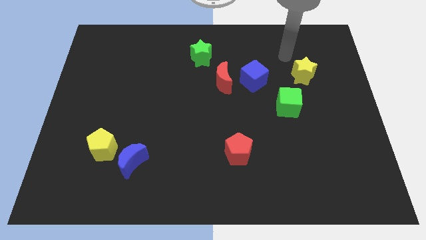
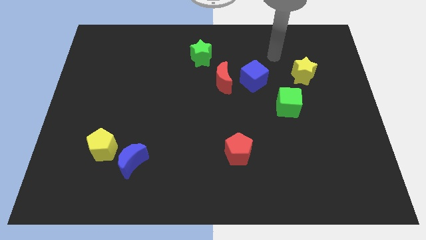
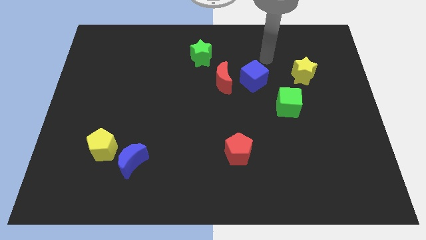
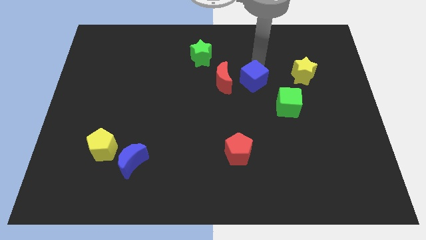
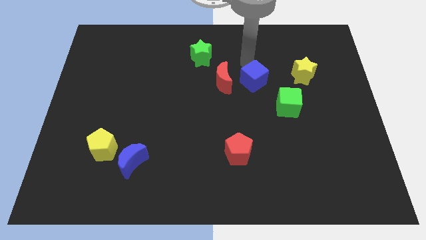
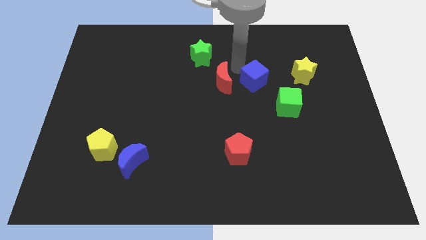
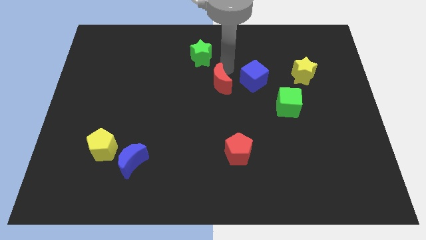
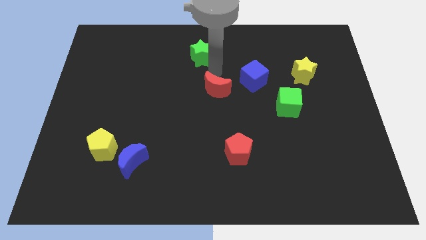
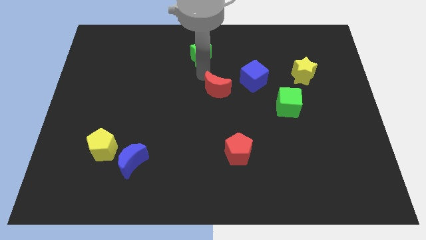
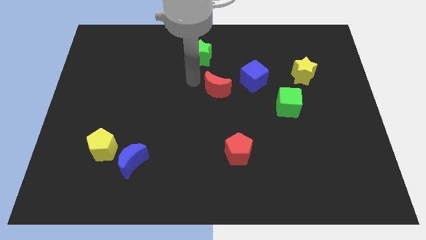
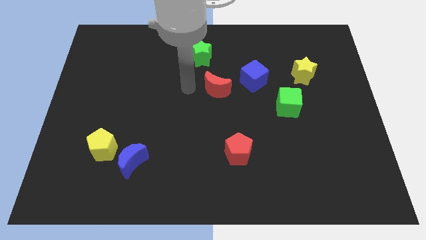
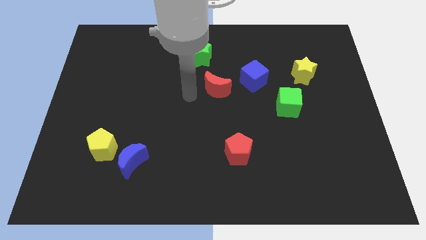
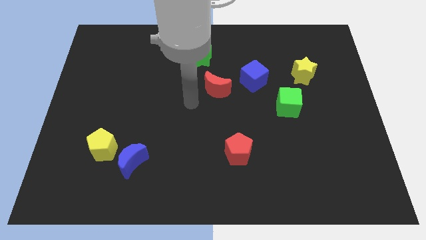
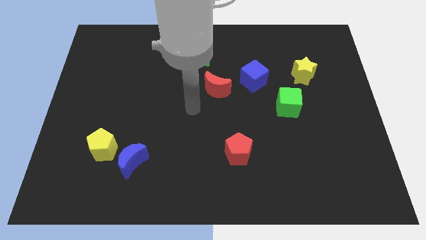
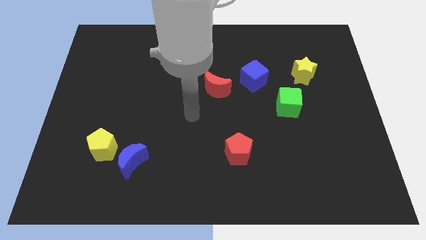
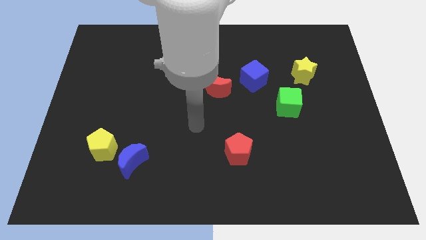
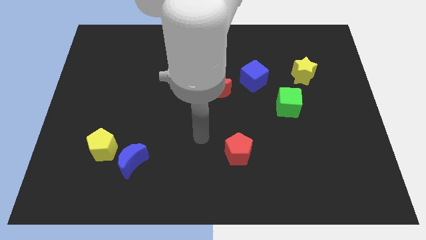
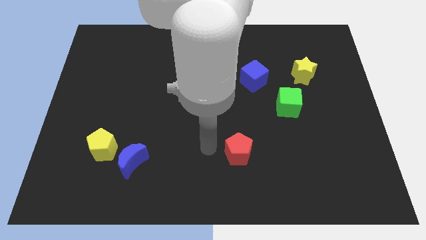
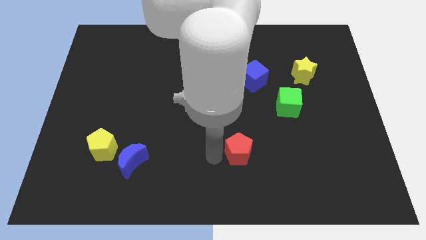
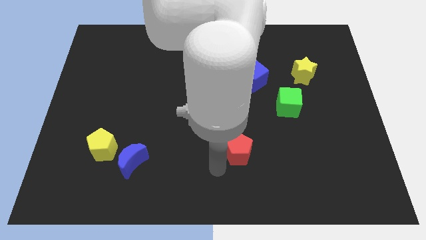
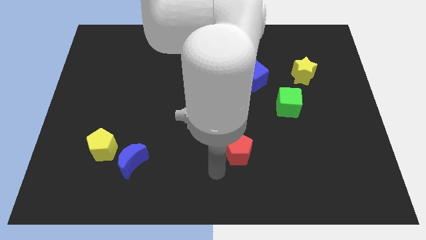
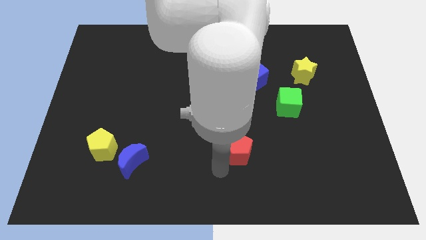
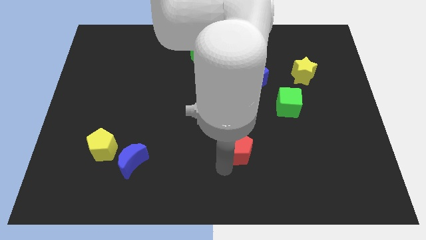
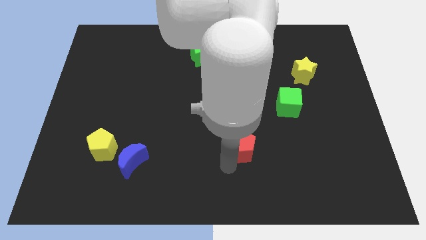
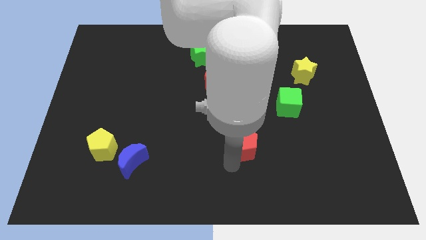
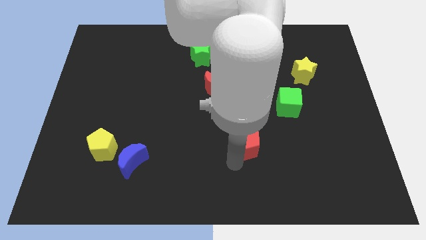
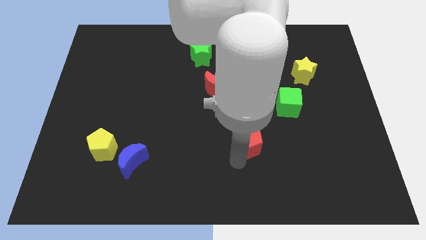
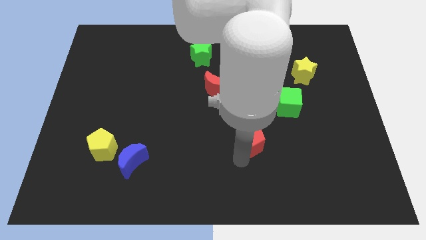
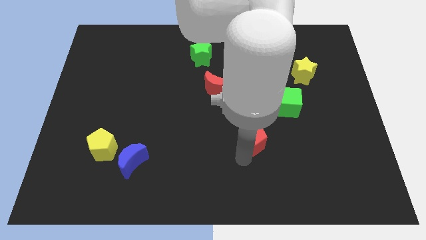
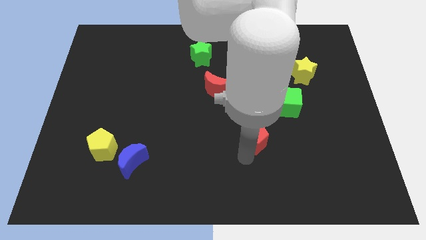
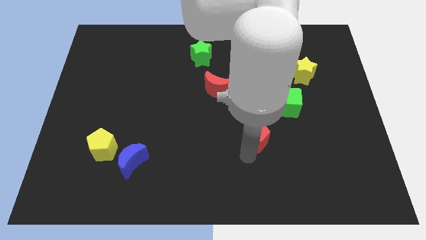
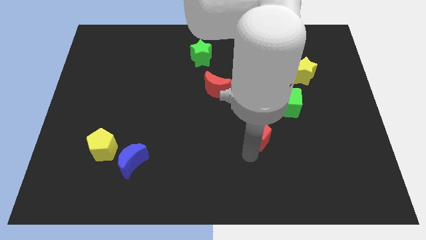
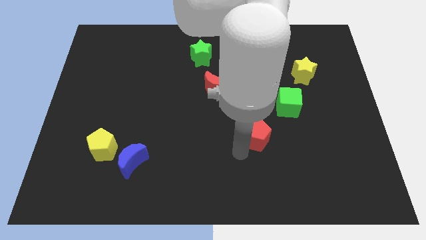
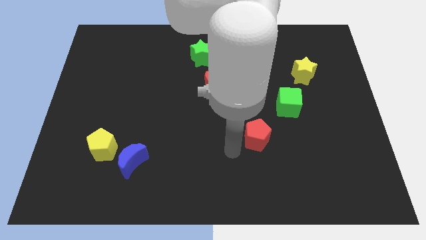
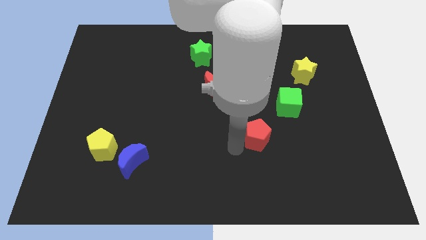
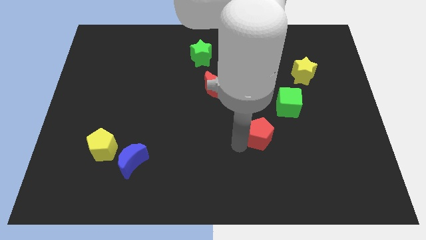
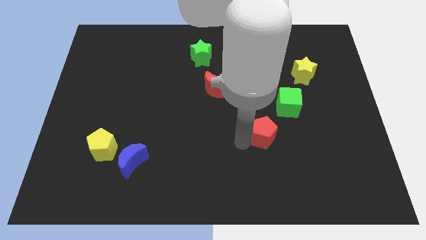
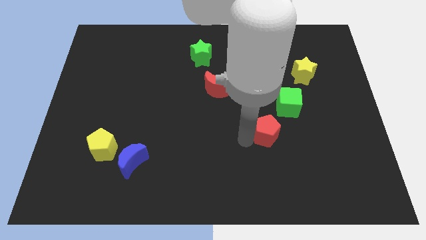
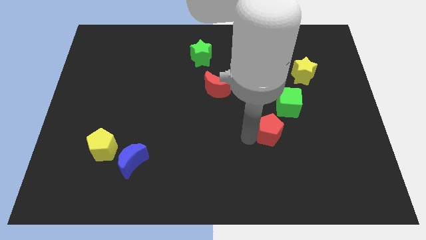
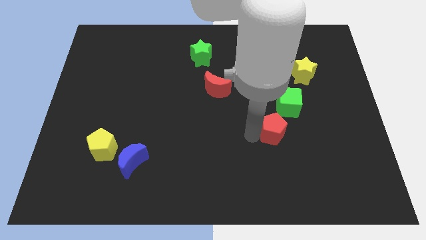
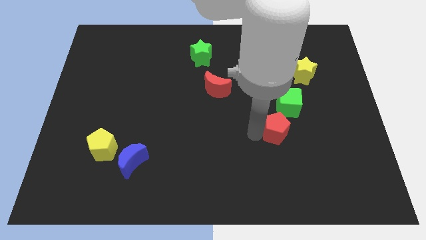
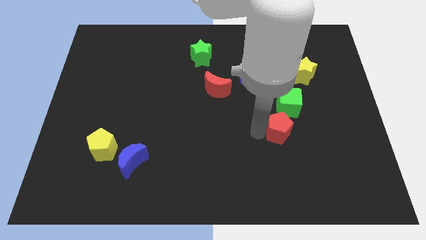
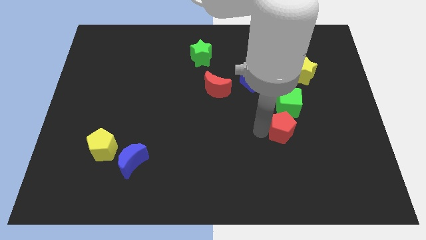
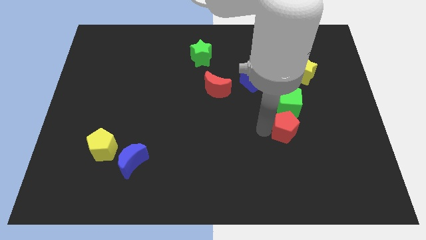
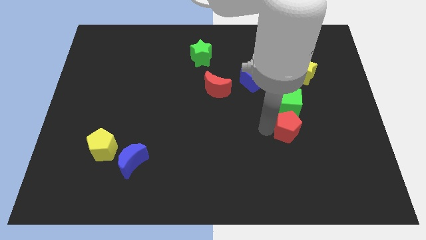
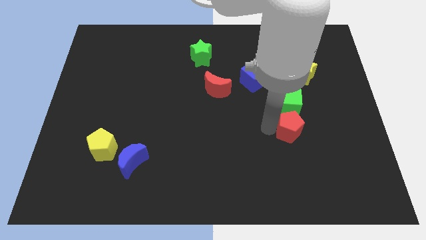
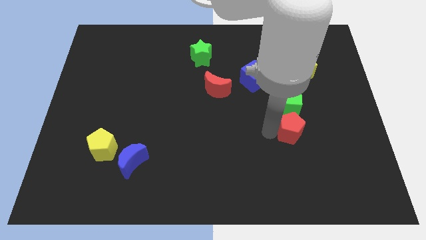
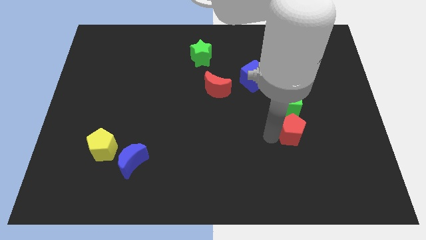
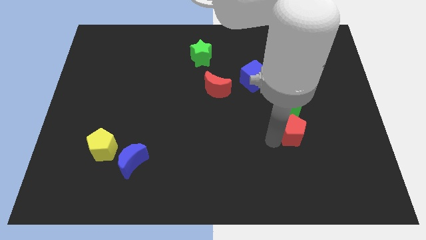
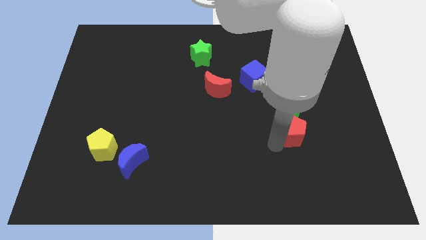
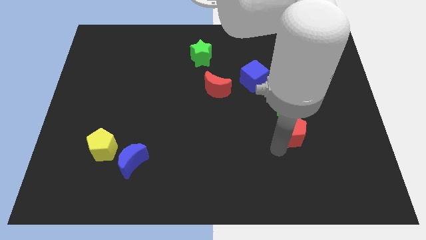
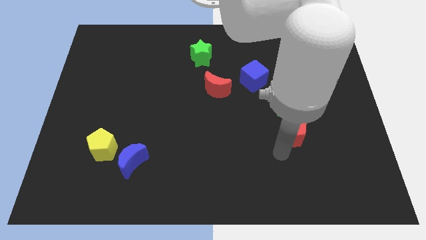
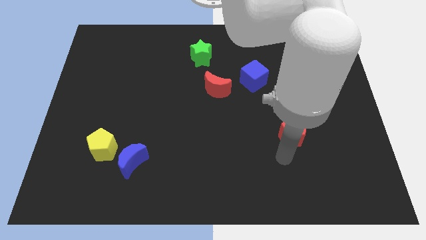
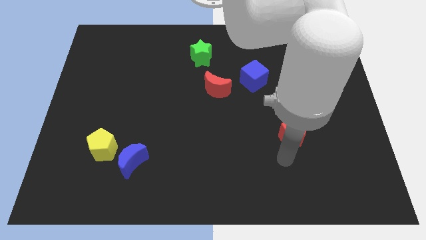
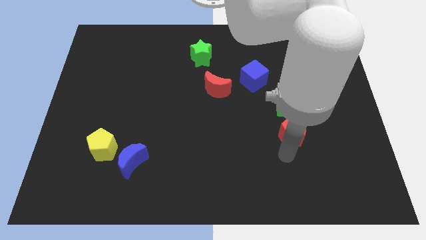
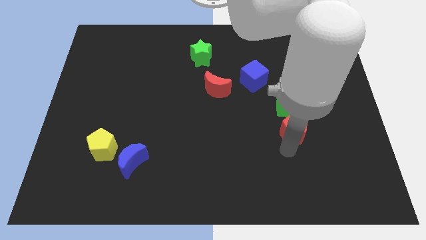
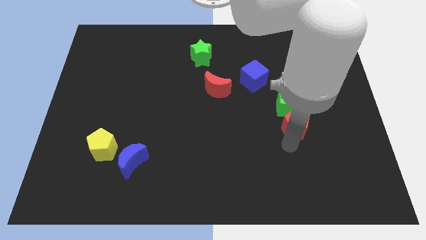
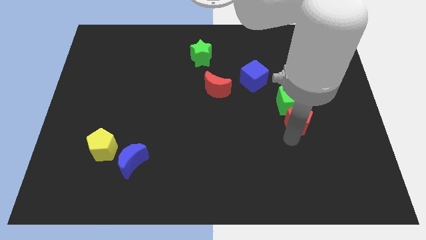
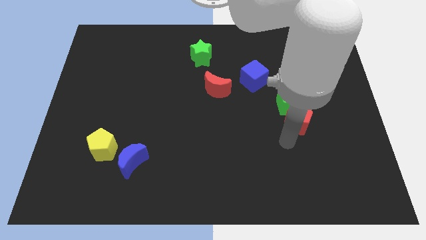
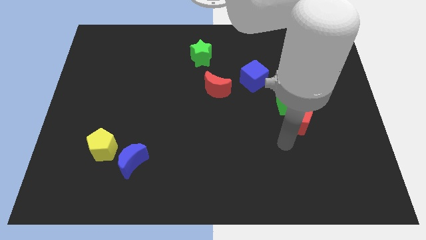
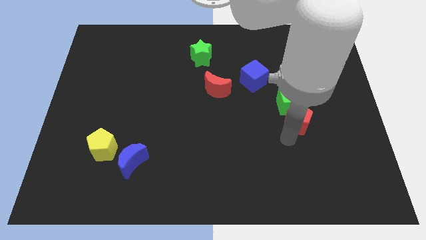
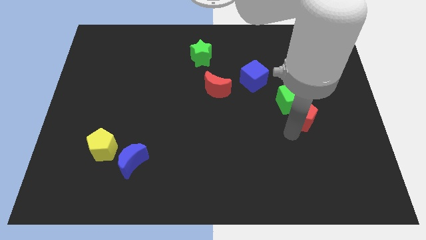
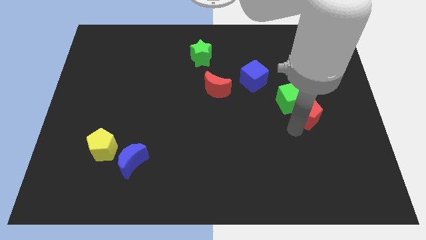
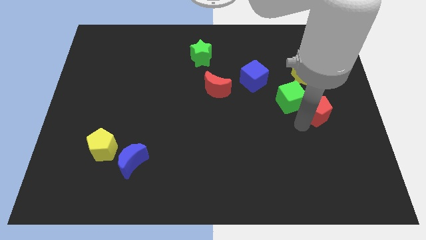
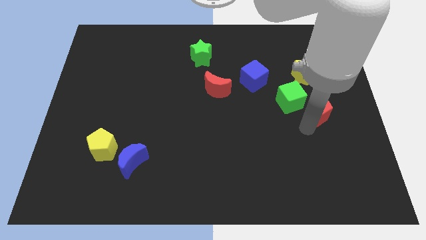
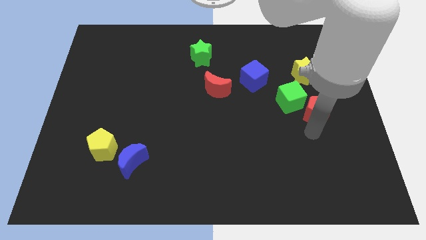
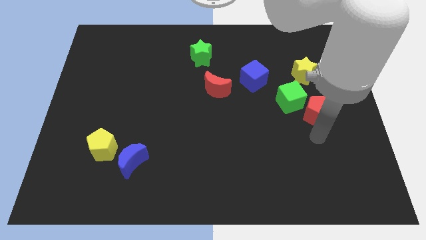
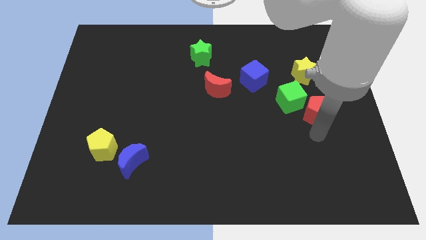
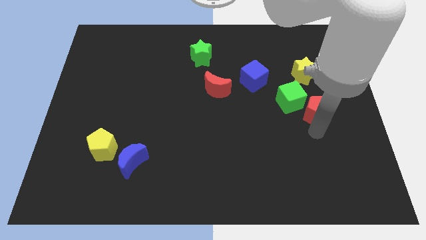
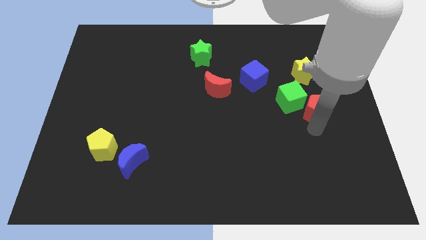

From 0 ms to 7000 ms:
push the red pentagon up and then to the right

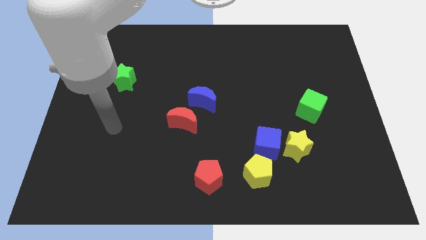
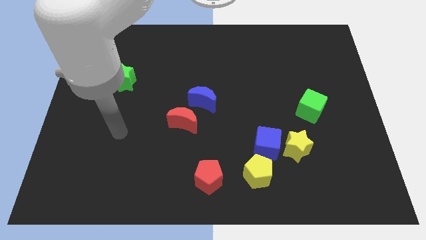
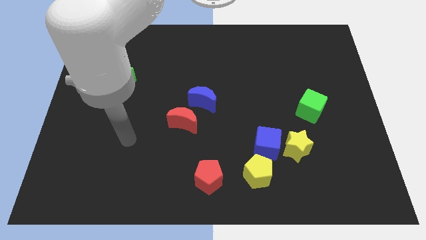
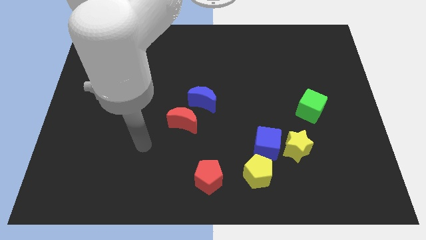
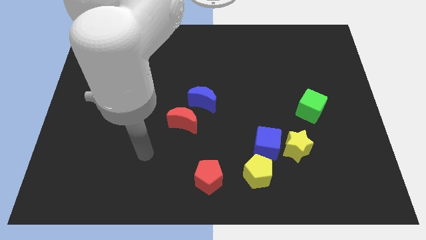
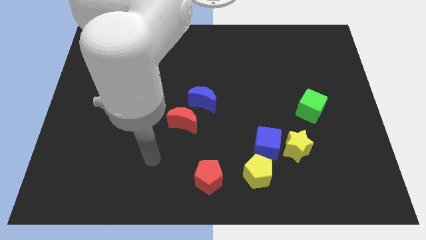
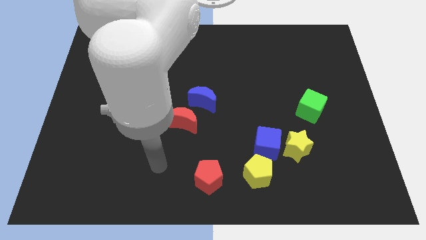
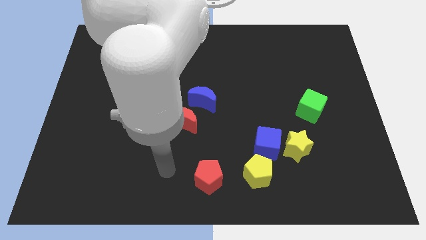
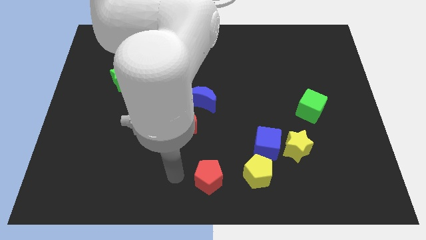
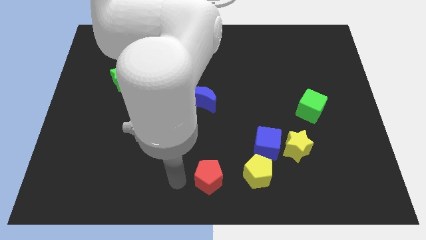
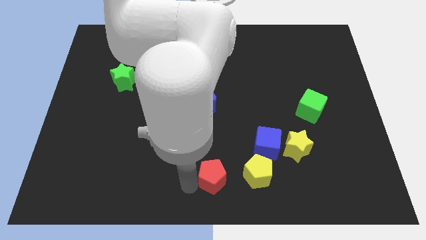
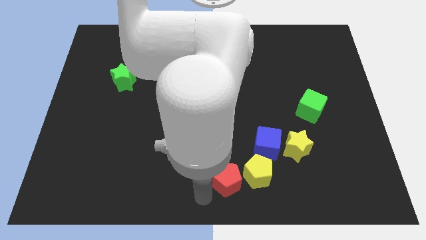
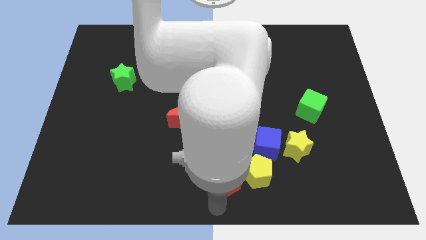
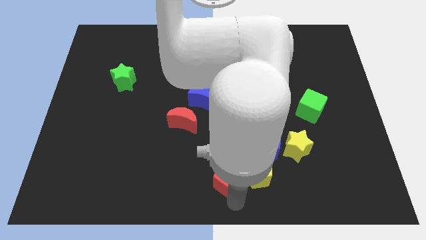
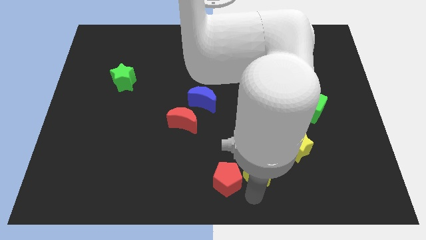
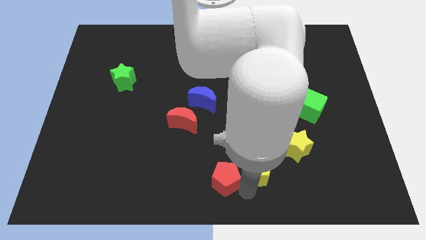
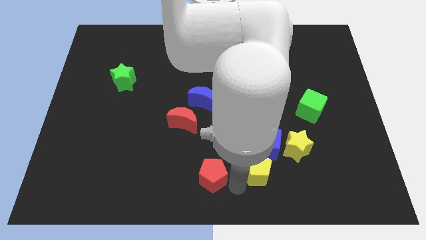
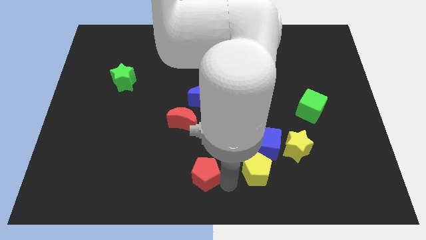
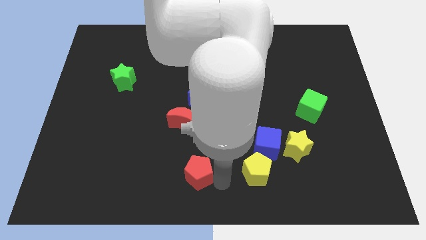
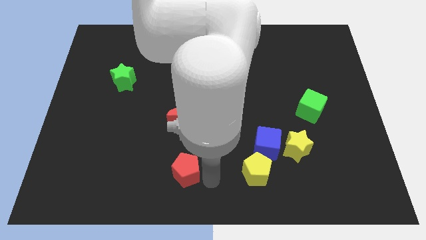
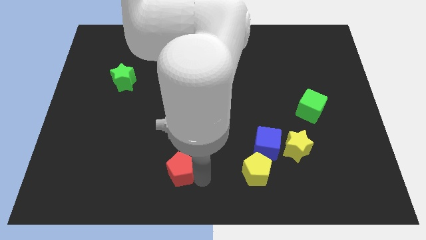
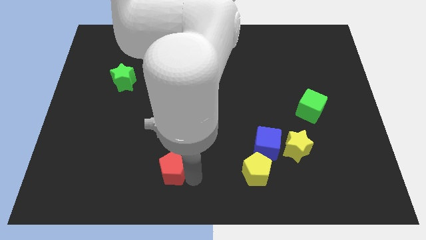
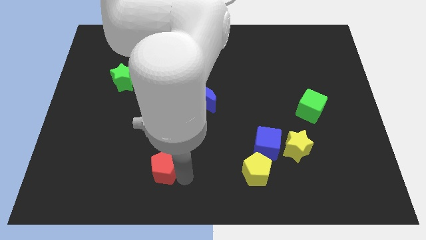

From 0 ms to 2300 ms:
move the red pentagon a little upwards and to the left diagonally
